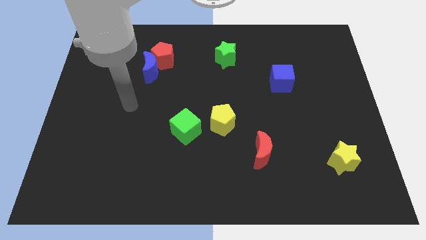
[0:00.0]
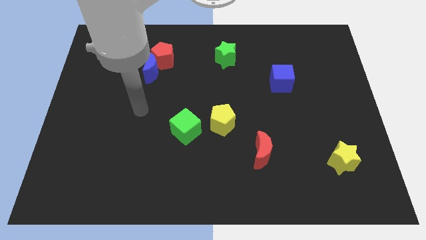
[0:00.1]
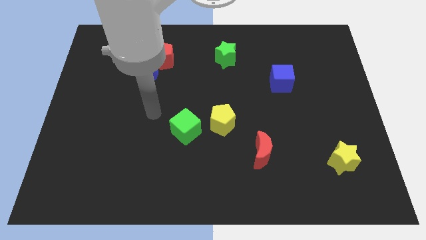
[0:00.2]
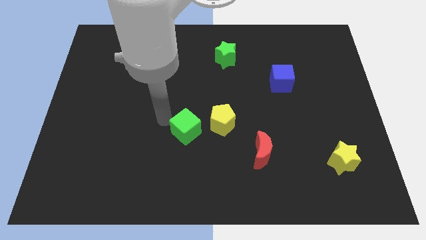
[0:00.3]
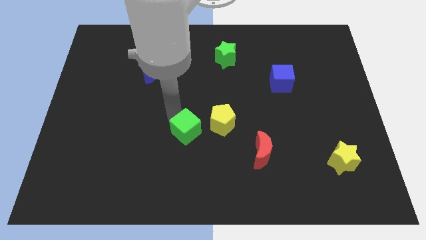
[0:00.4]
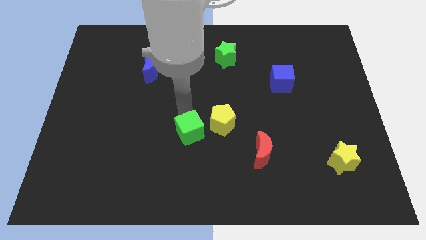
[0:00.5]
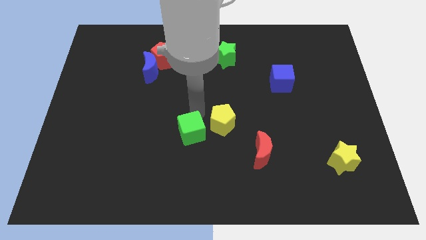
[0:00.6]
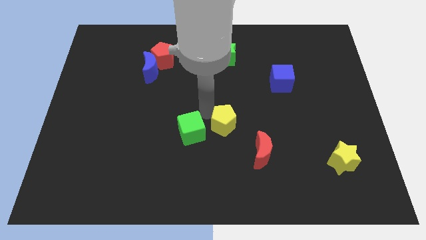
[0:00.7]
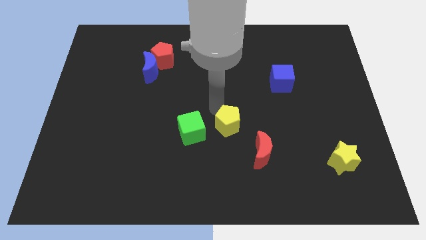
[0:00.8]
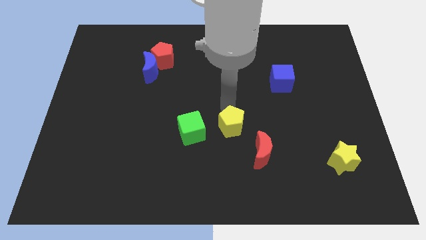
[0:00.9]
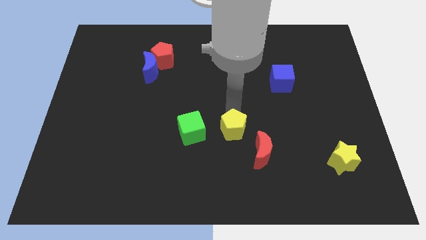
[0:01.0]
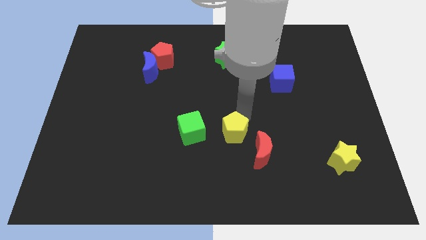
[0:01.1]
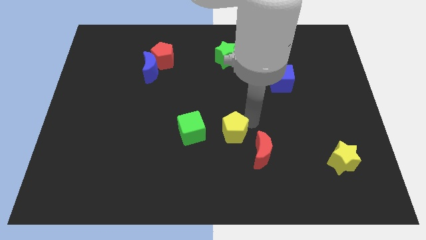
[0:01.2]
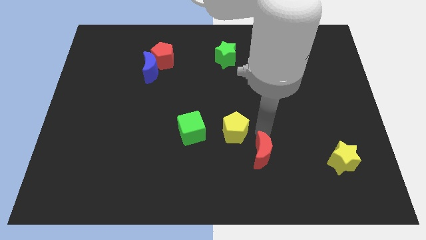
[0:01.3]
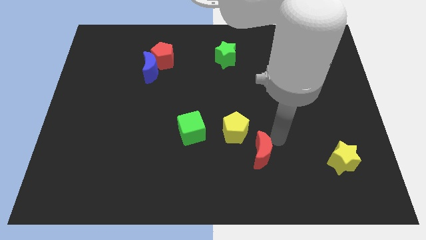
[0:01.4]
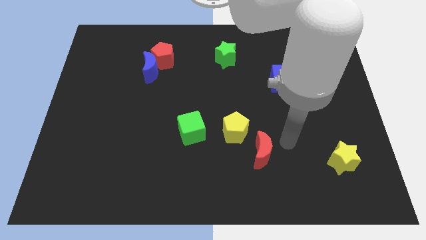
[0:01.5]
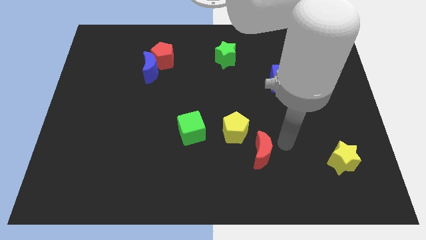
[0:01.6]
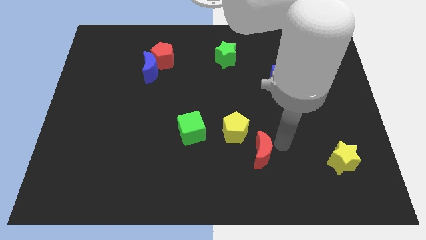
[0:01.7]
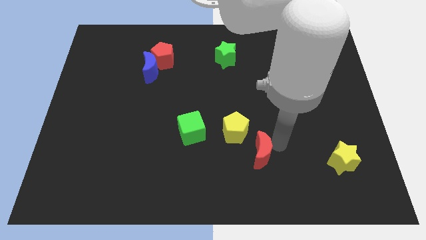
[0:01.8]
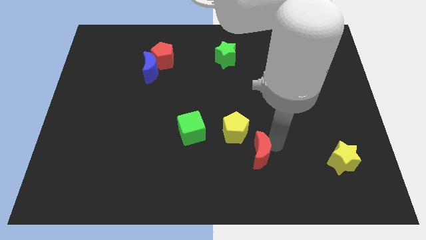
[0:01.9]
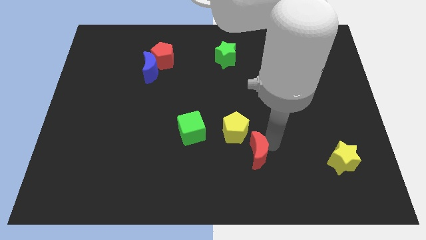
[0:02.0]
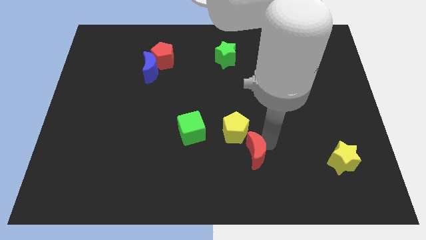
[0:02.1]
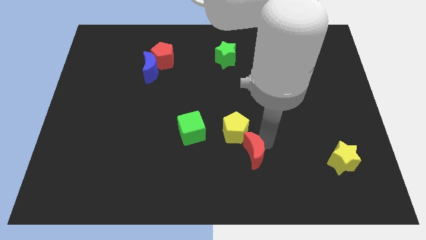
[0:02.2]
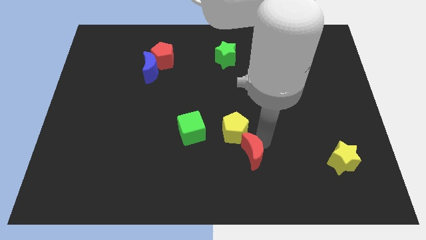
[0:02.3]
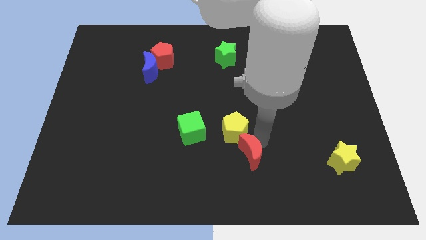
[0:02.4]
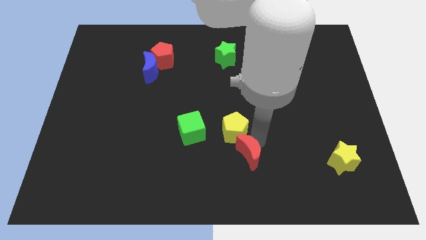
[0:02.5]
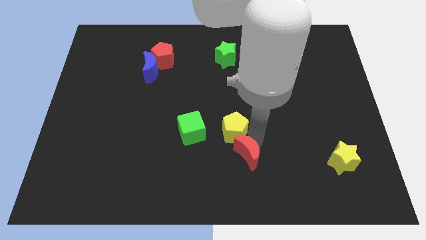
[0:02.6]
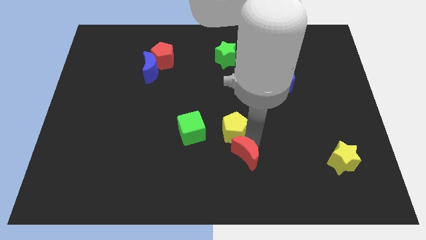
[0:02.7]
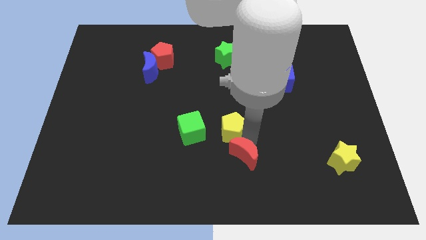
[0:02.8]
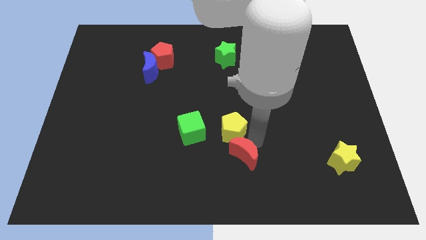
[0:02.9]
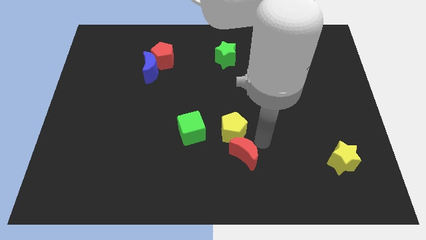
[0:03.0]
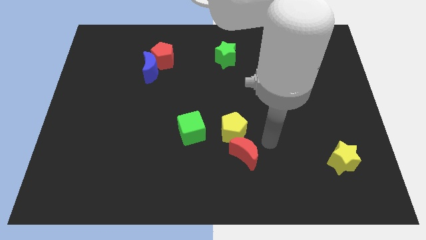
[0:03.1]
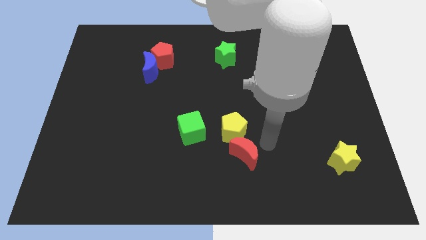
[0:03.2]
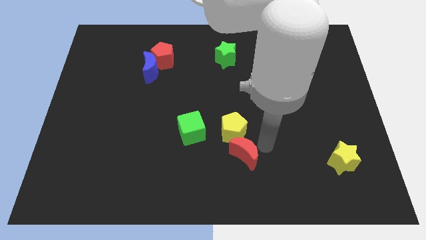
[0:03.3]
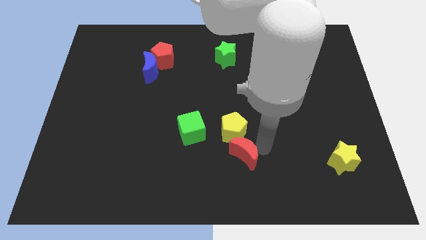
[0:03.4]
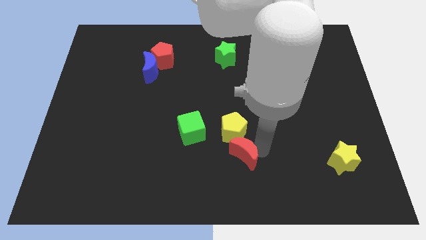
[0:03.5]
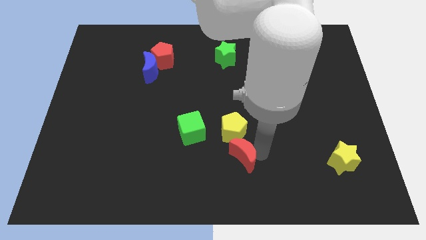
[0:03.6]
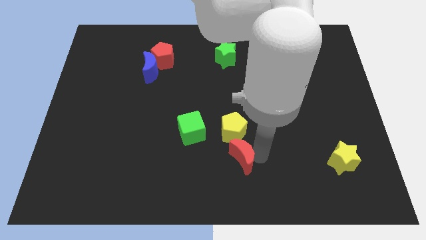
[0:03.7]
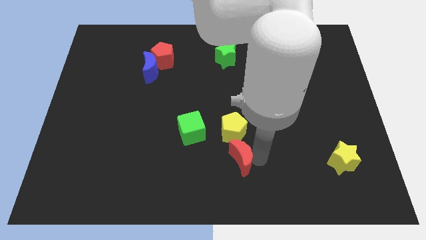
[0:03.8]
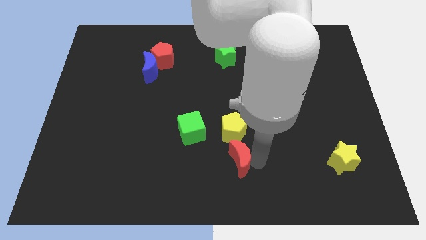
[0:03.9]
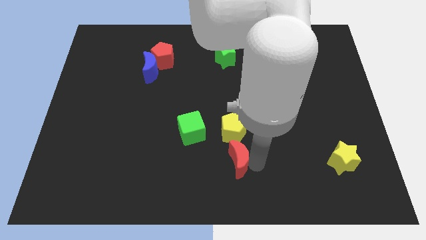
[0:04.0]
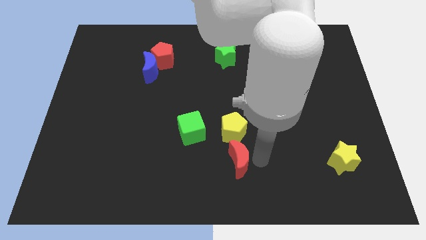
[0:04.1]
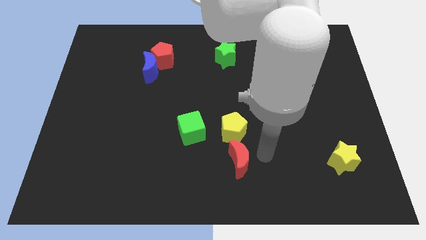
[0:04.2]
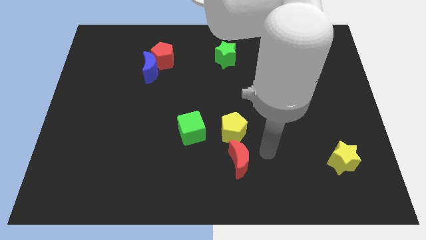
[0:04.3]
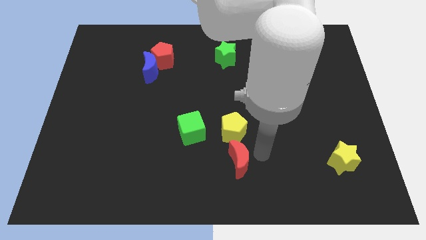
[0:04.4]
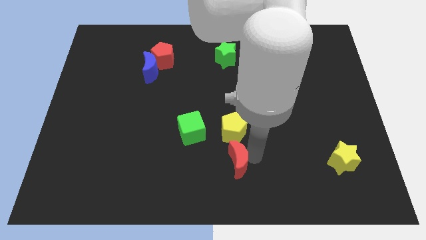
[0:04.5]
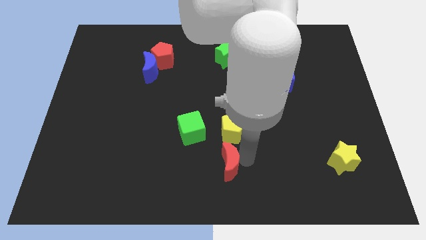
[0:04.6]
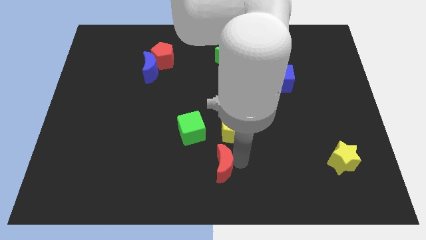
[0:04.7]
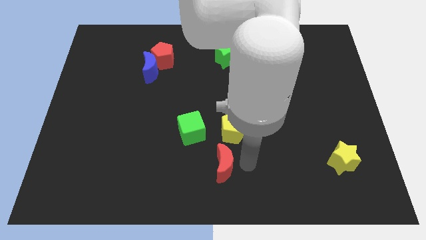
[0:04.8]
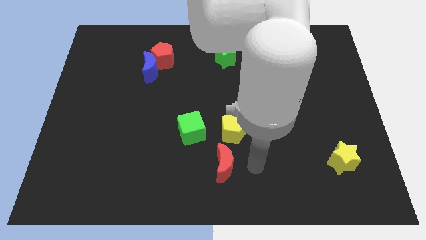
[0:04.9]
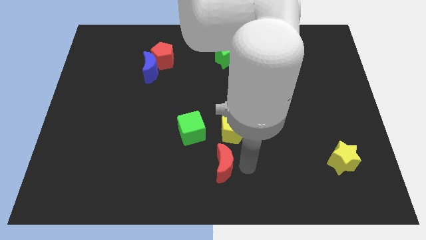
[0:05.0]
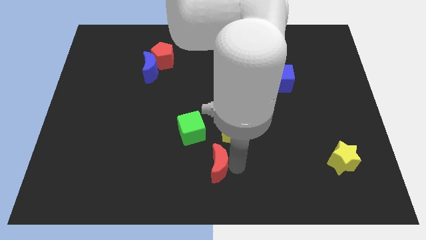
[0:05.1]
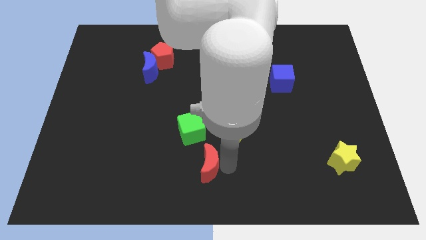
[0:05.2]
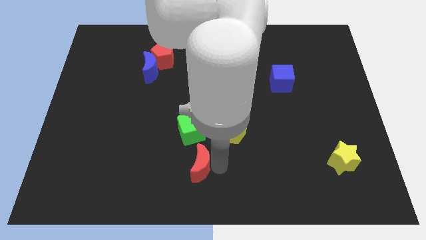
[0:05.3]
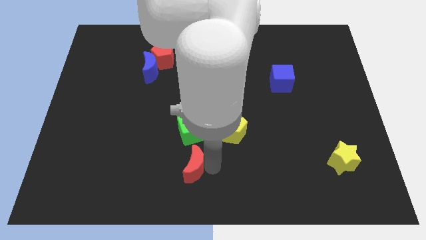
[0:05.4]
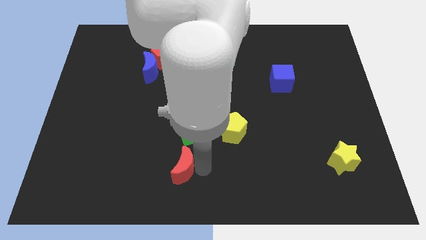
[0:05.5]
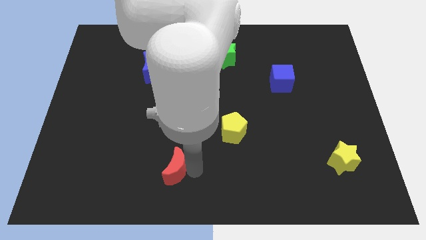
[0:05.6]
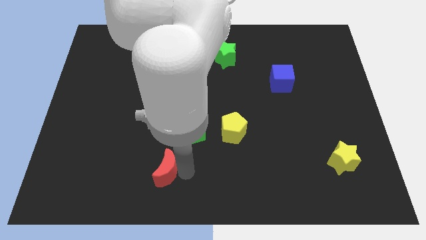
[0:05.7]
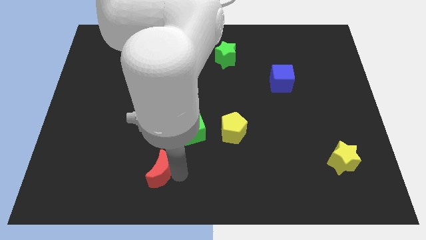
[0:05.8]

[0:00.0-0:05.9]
slide the red moon to the left

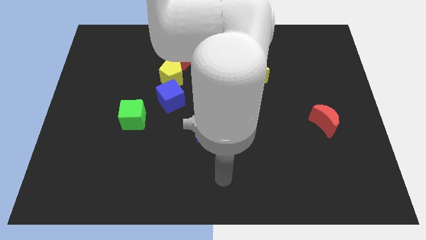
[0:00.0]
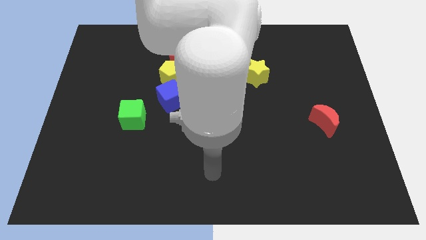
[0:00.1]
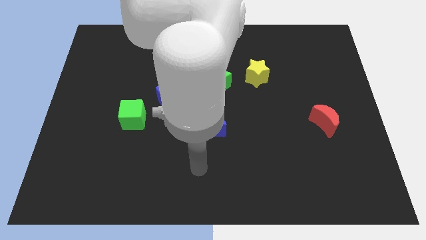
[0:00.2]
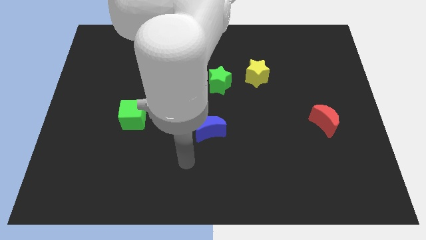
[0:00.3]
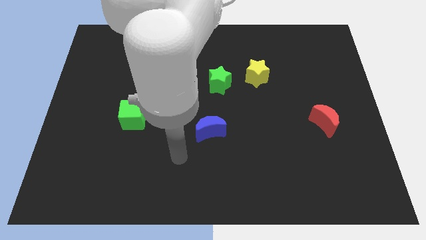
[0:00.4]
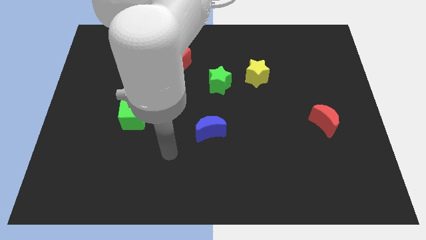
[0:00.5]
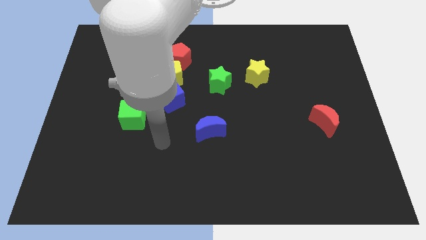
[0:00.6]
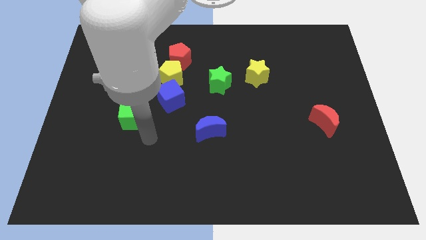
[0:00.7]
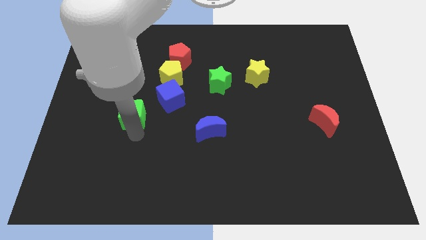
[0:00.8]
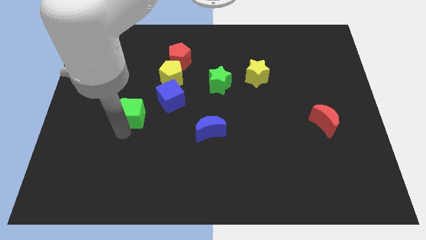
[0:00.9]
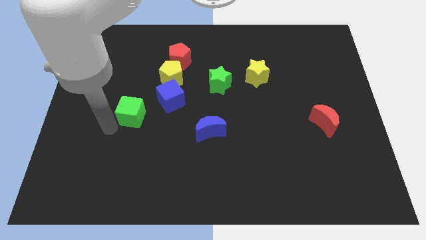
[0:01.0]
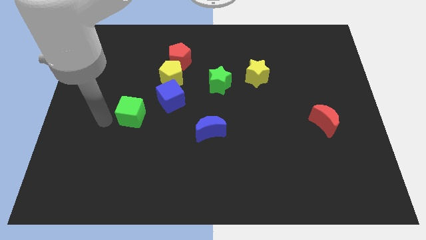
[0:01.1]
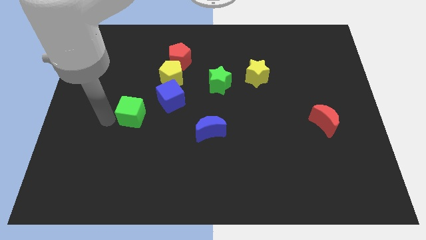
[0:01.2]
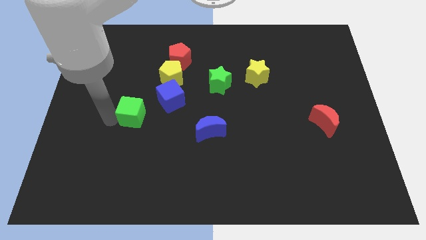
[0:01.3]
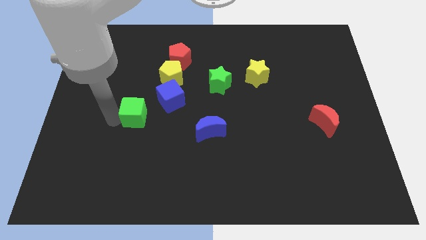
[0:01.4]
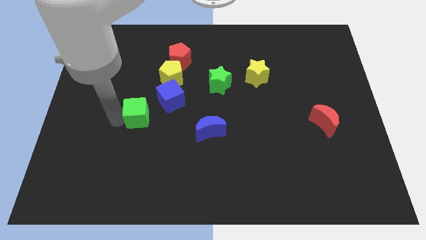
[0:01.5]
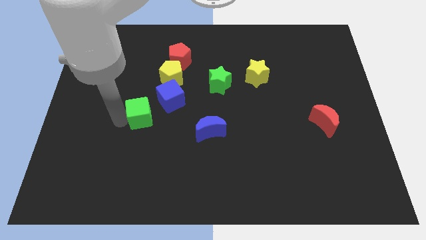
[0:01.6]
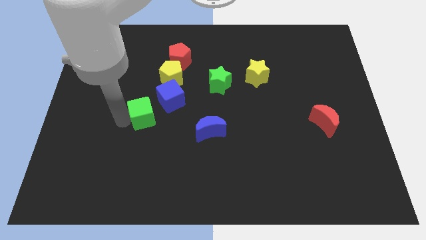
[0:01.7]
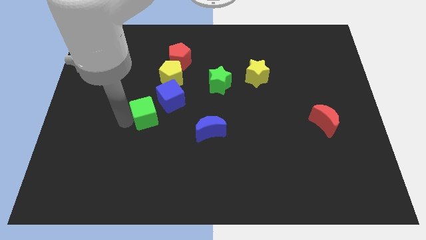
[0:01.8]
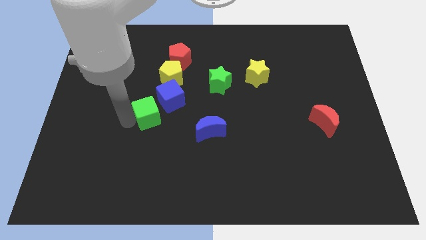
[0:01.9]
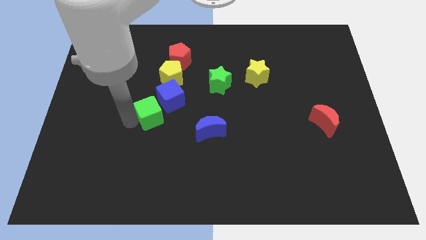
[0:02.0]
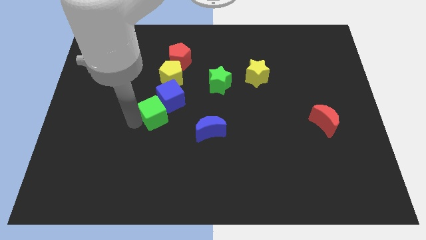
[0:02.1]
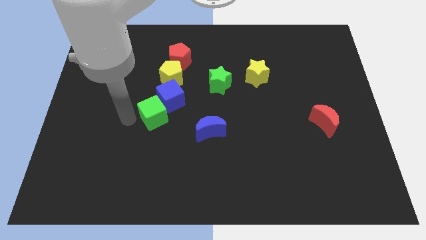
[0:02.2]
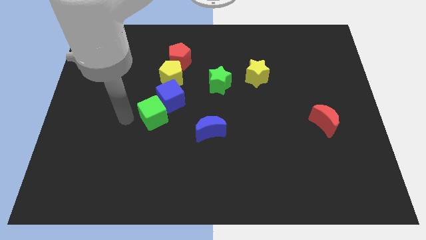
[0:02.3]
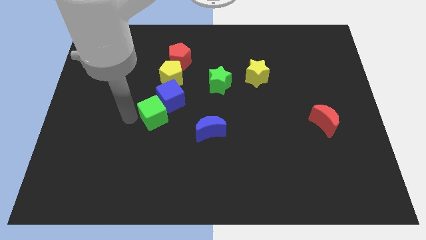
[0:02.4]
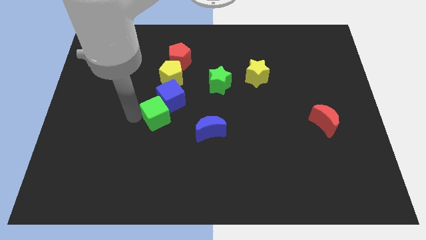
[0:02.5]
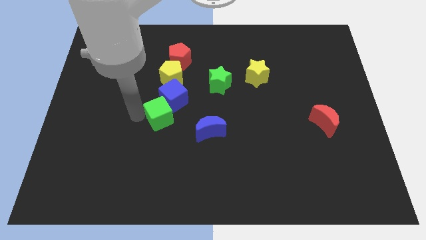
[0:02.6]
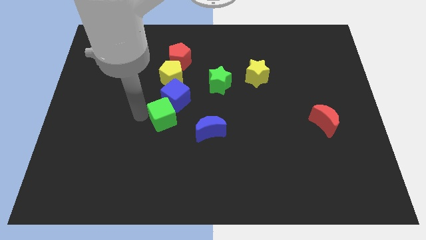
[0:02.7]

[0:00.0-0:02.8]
slide the green cube right slightly
